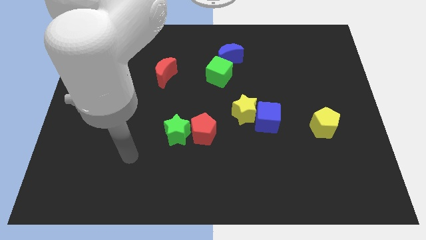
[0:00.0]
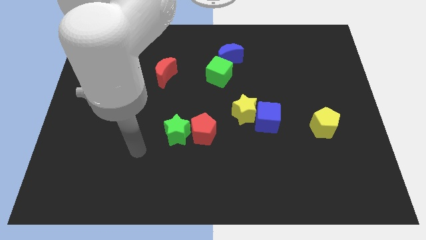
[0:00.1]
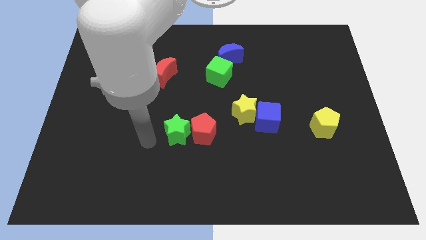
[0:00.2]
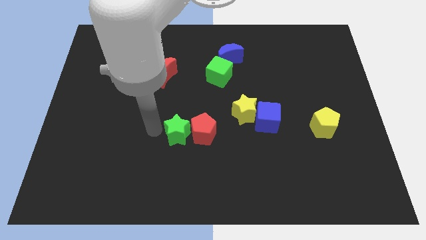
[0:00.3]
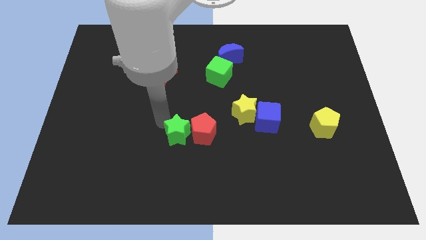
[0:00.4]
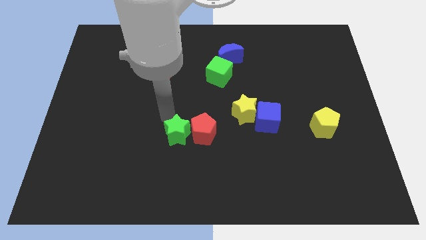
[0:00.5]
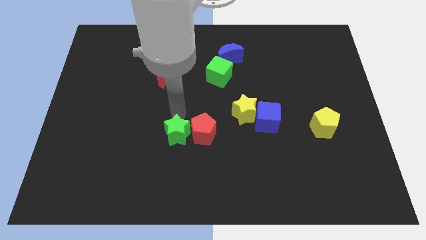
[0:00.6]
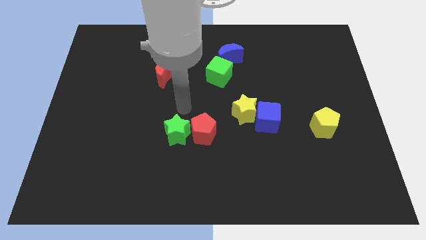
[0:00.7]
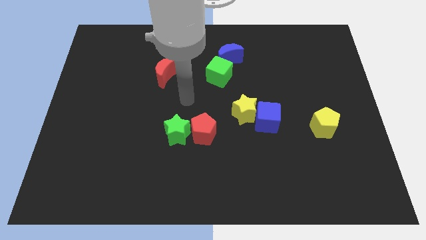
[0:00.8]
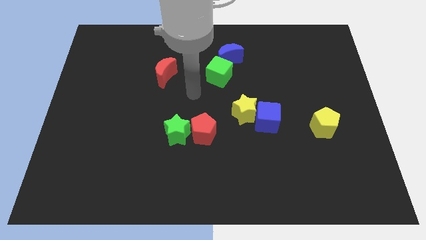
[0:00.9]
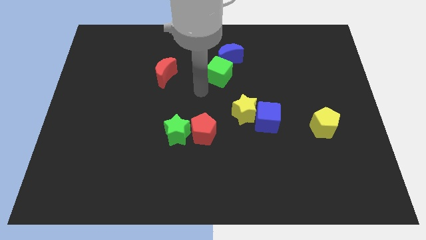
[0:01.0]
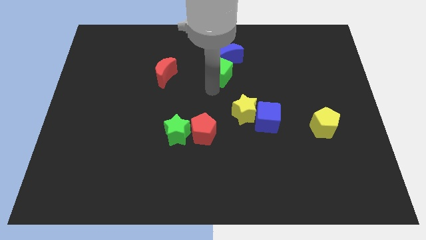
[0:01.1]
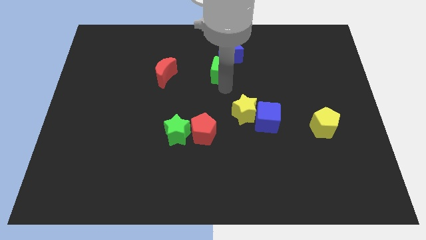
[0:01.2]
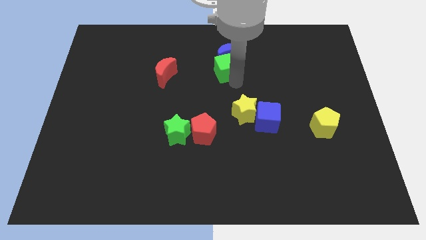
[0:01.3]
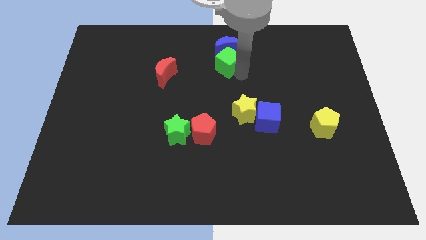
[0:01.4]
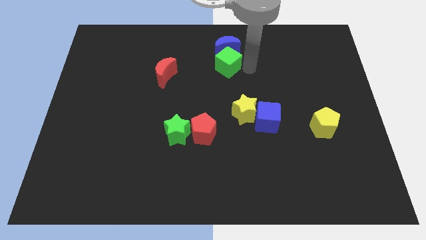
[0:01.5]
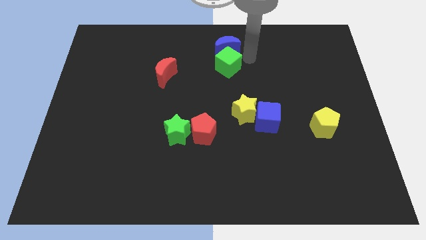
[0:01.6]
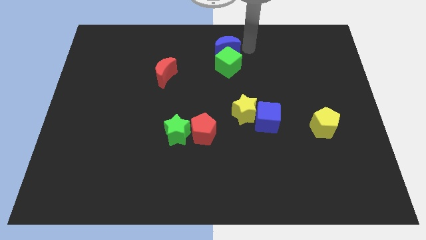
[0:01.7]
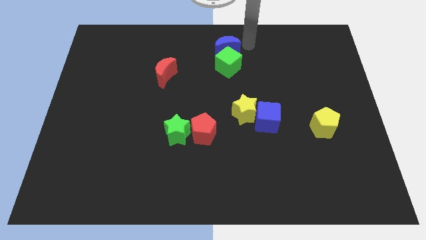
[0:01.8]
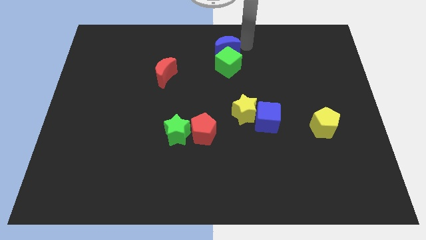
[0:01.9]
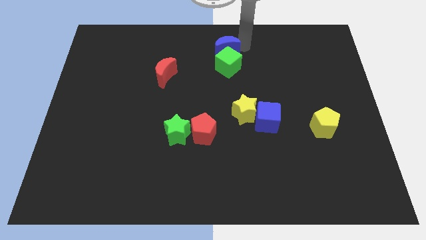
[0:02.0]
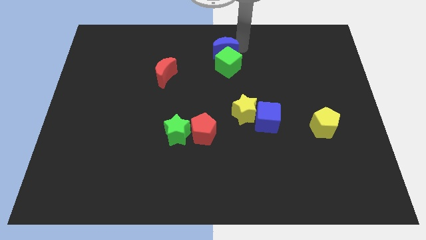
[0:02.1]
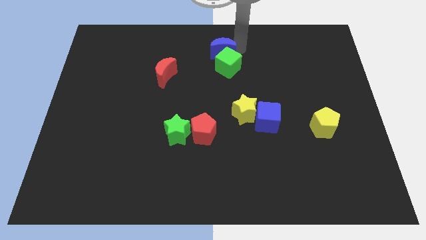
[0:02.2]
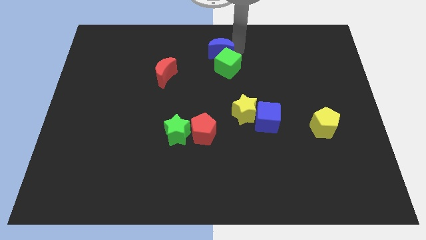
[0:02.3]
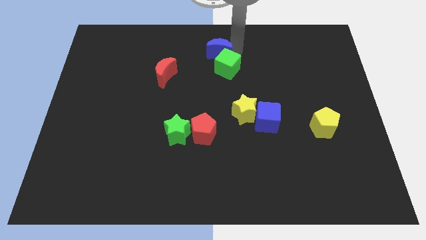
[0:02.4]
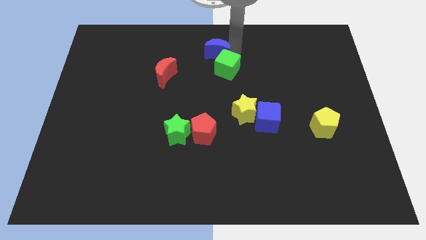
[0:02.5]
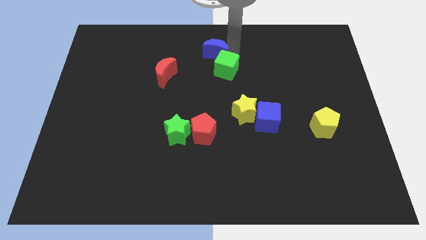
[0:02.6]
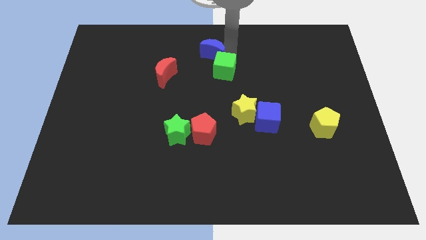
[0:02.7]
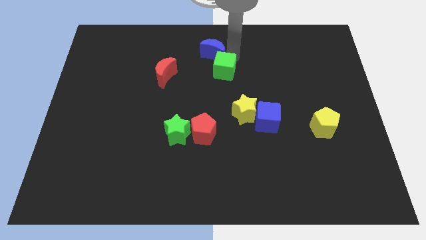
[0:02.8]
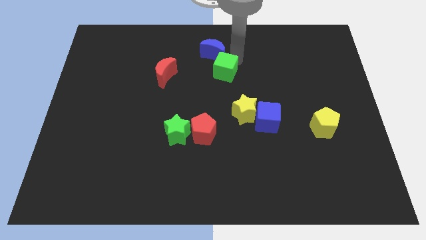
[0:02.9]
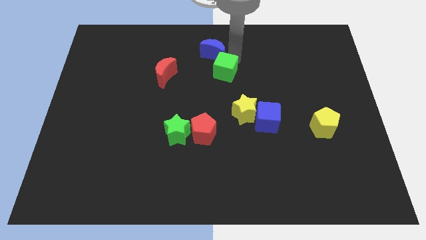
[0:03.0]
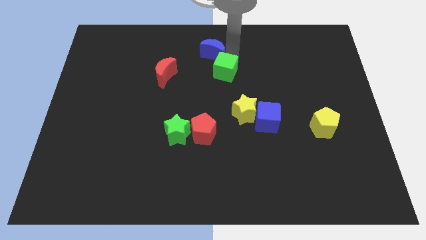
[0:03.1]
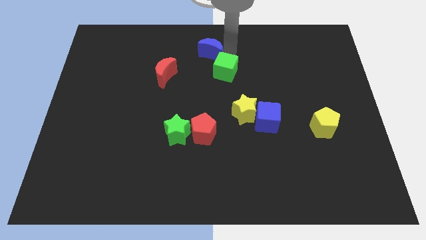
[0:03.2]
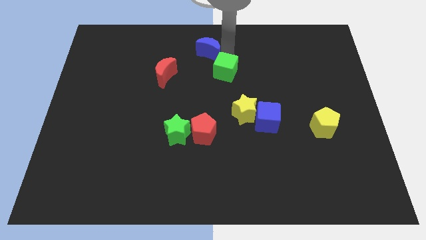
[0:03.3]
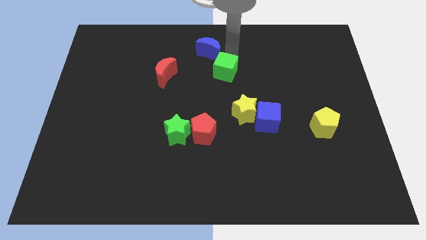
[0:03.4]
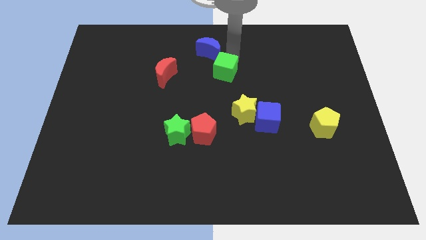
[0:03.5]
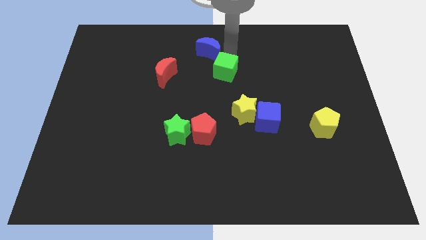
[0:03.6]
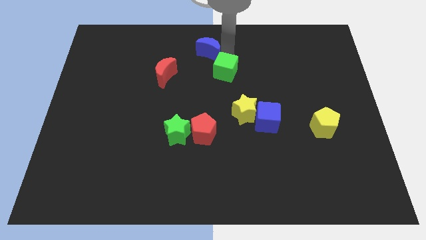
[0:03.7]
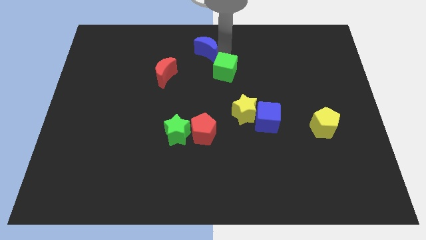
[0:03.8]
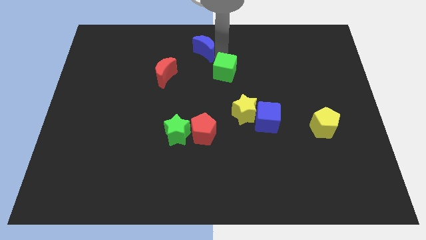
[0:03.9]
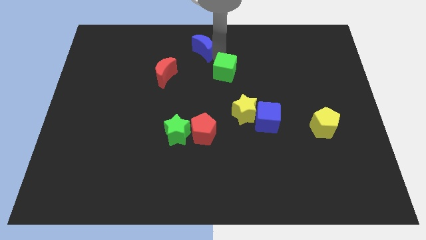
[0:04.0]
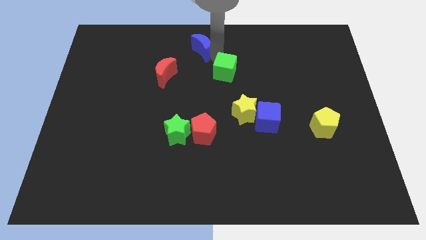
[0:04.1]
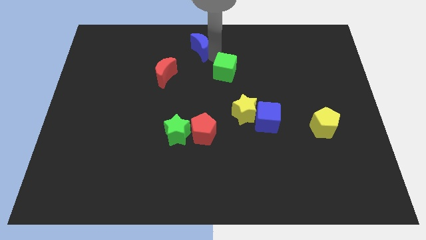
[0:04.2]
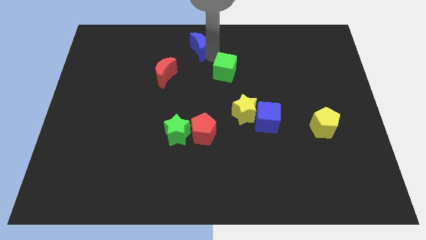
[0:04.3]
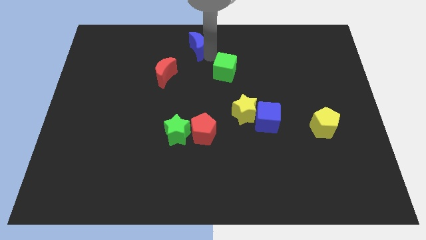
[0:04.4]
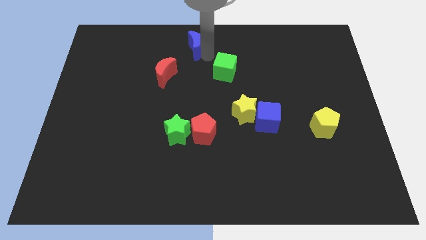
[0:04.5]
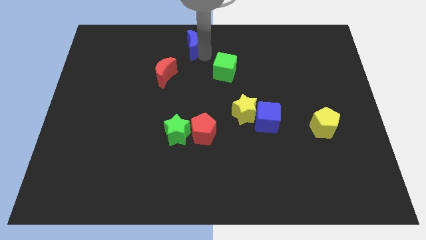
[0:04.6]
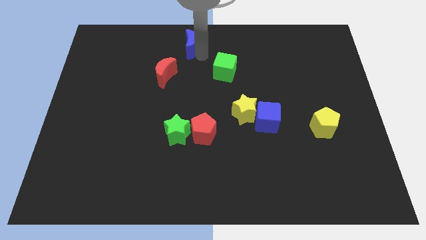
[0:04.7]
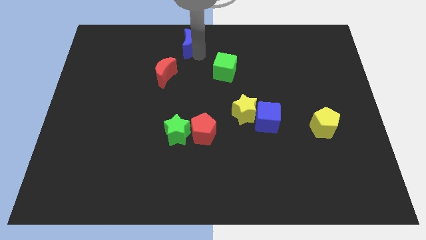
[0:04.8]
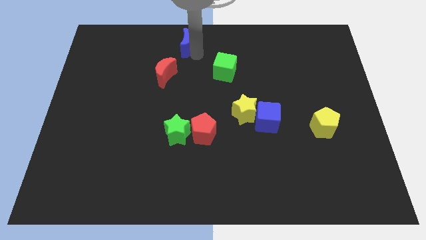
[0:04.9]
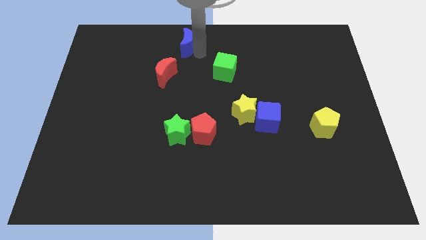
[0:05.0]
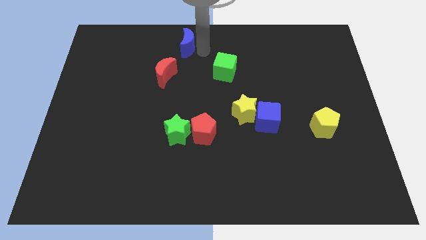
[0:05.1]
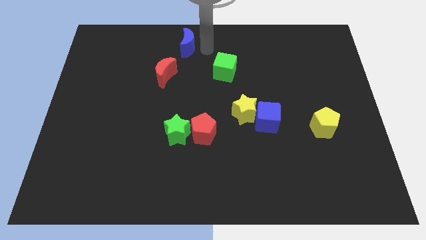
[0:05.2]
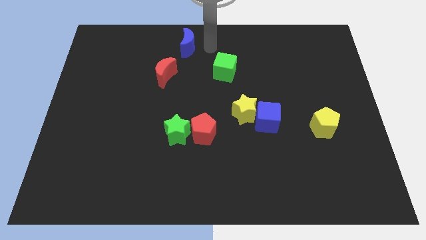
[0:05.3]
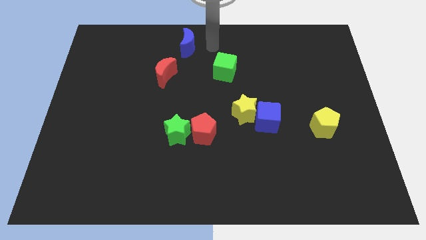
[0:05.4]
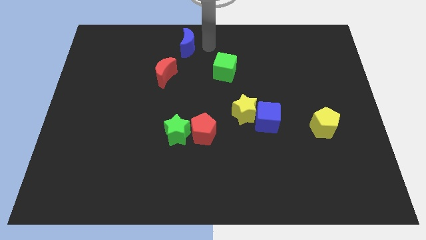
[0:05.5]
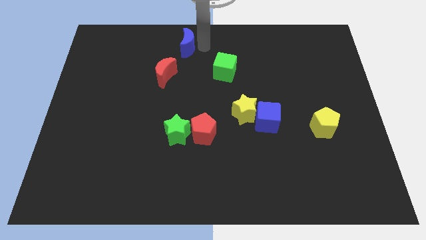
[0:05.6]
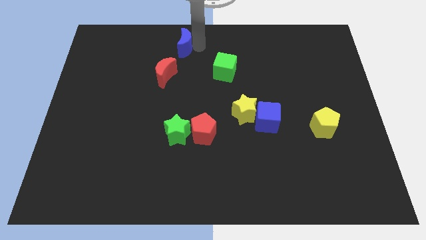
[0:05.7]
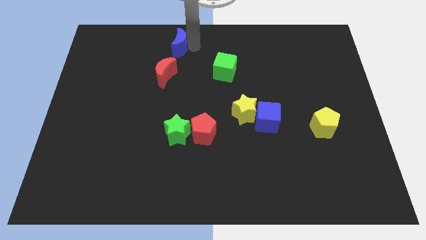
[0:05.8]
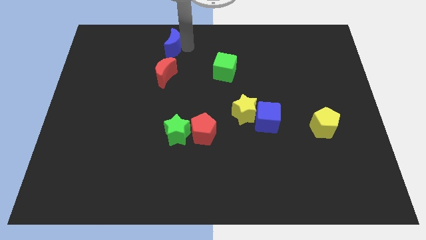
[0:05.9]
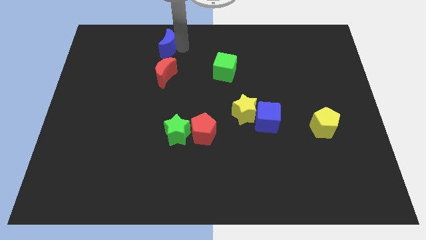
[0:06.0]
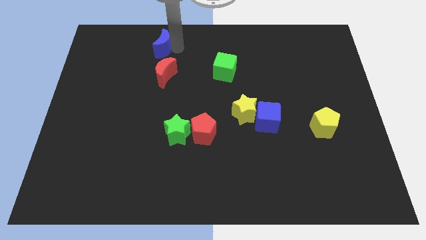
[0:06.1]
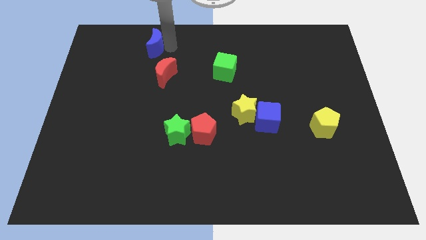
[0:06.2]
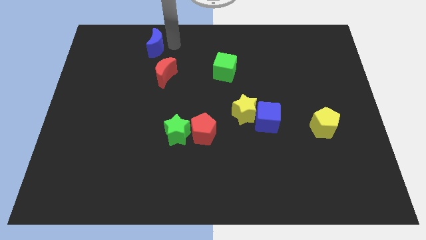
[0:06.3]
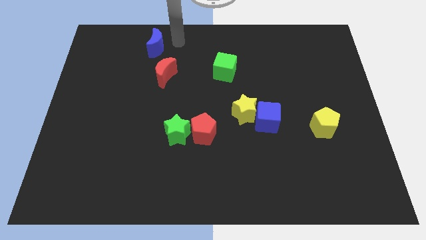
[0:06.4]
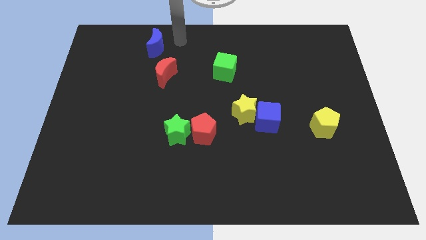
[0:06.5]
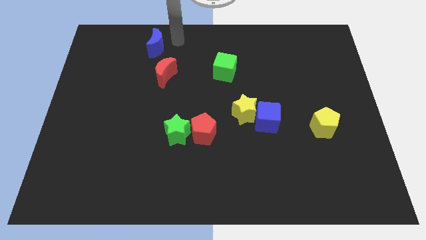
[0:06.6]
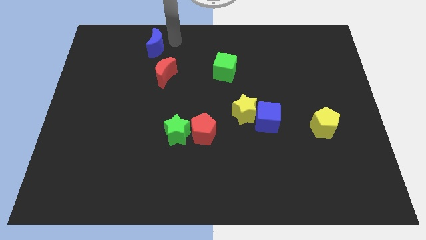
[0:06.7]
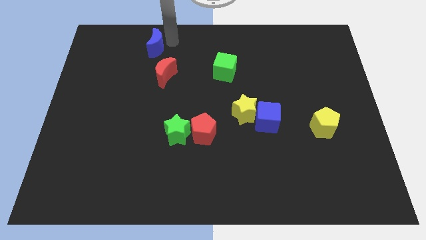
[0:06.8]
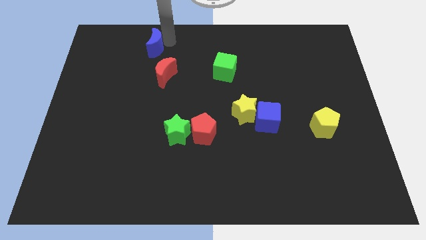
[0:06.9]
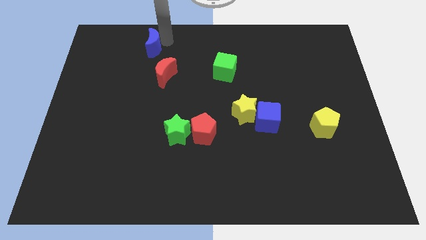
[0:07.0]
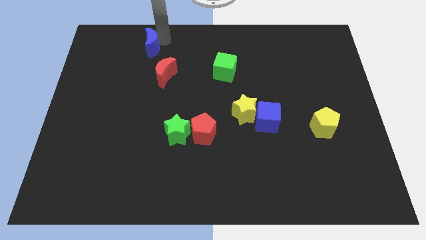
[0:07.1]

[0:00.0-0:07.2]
slide the blue moon to the left

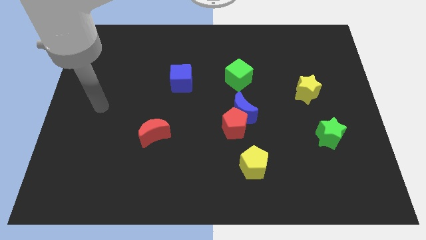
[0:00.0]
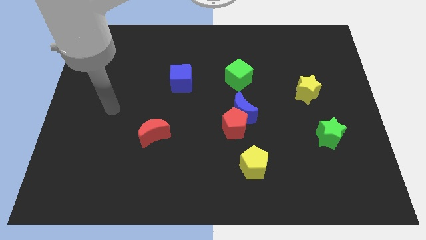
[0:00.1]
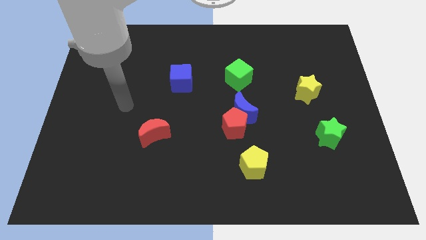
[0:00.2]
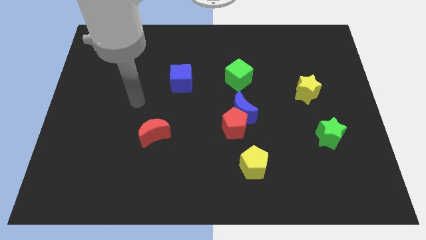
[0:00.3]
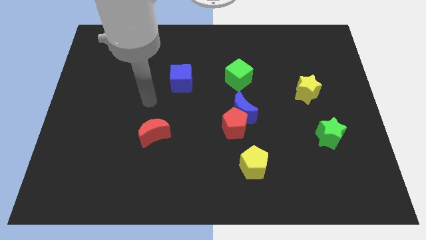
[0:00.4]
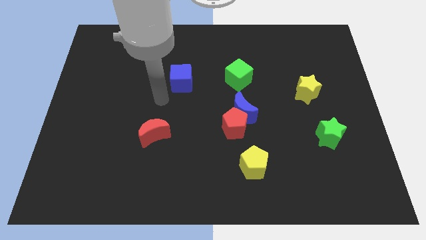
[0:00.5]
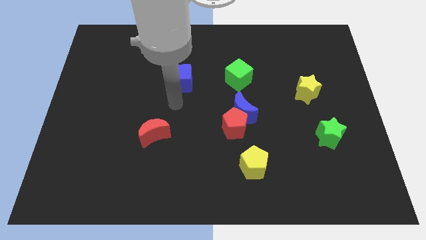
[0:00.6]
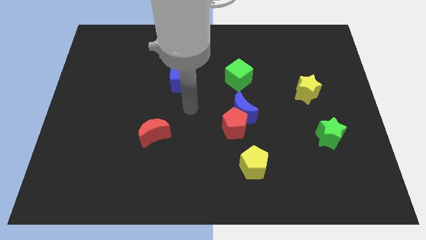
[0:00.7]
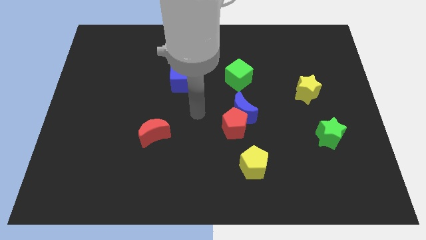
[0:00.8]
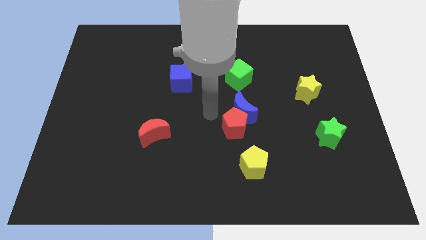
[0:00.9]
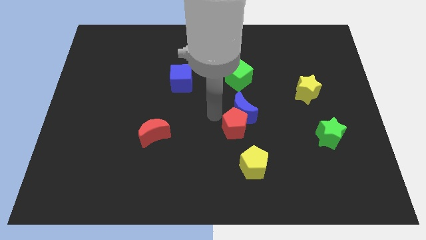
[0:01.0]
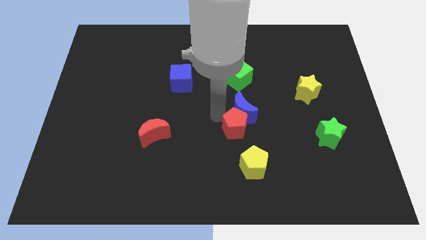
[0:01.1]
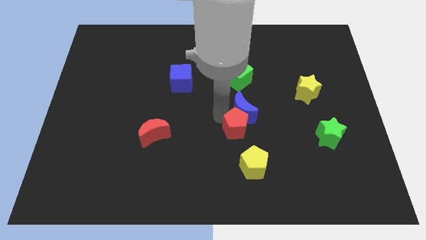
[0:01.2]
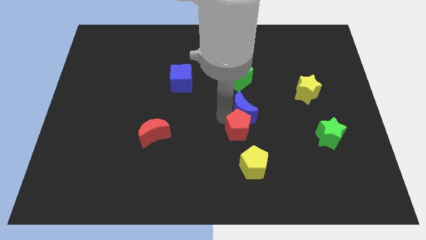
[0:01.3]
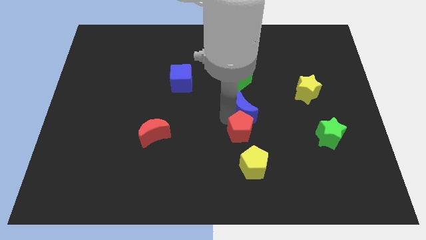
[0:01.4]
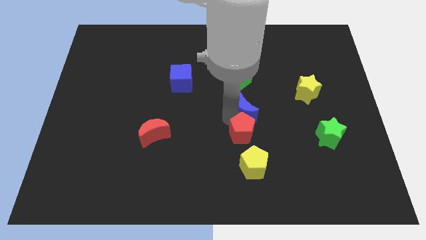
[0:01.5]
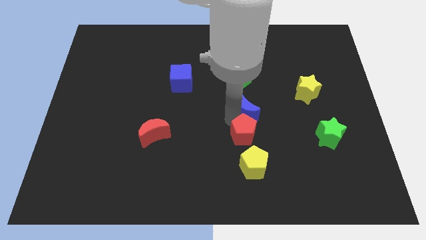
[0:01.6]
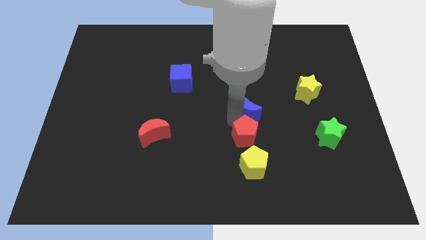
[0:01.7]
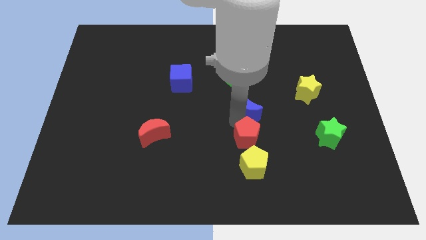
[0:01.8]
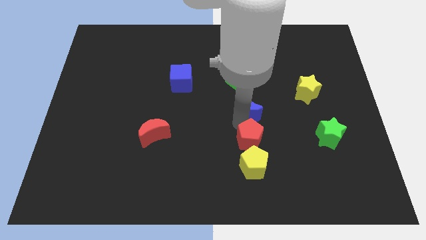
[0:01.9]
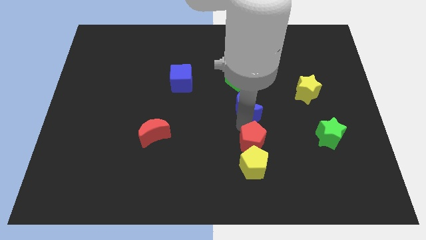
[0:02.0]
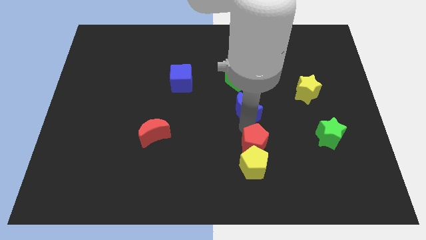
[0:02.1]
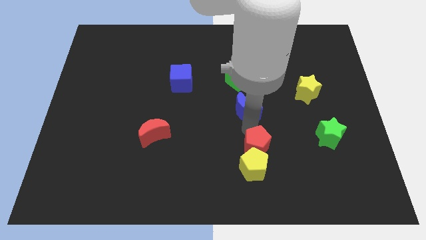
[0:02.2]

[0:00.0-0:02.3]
move the red pentagon slightly downwards and to the right
